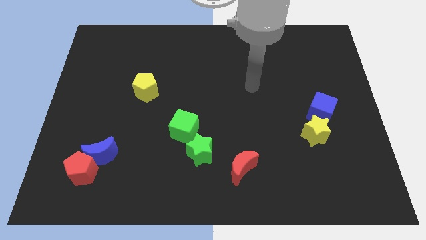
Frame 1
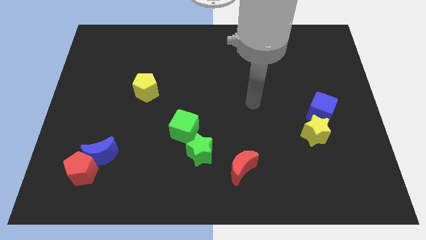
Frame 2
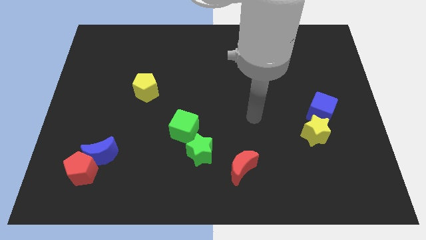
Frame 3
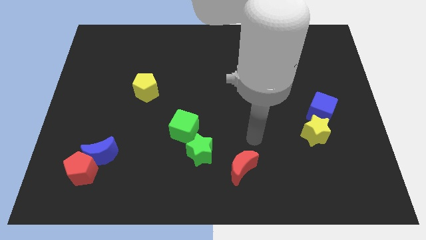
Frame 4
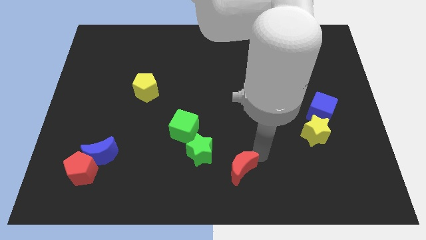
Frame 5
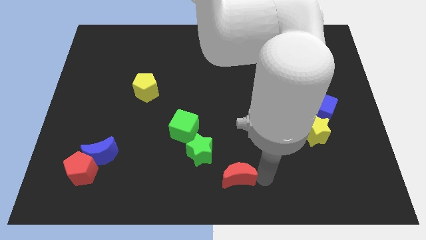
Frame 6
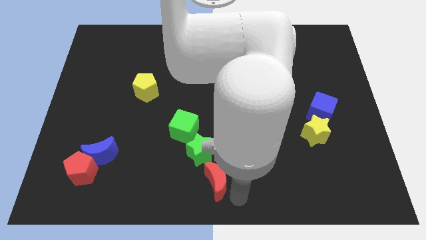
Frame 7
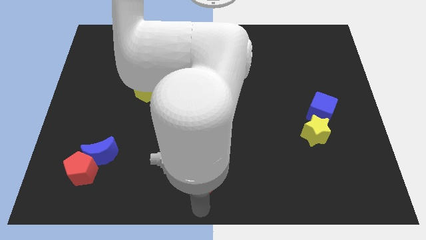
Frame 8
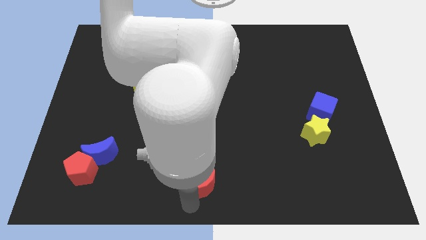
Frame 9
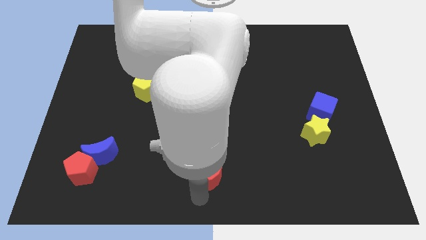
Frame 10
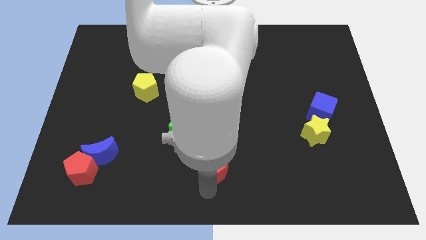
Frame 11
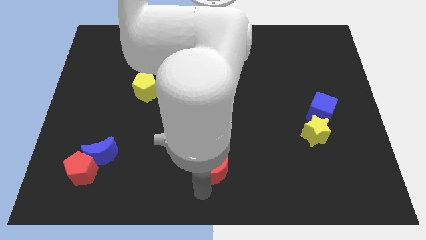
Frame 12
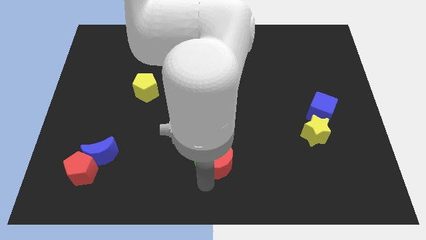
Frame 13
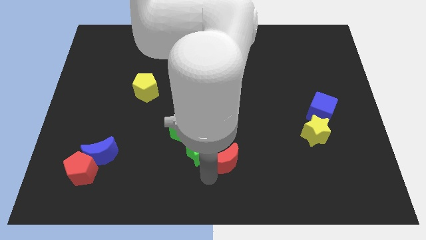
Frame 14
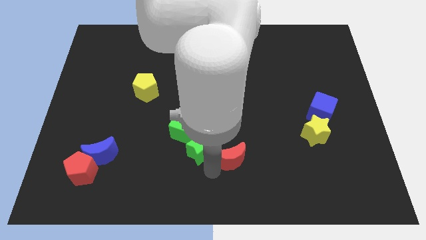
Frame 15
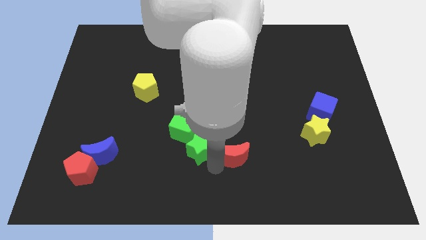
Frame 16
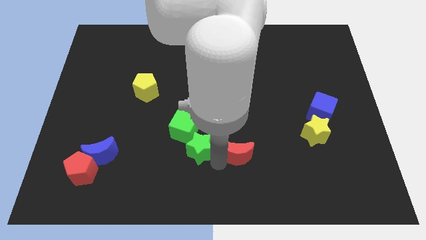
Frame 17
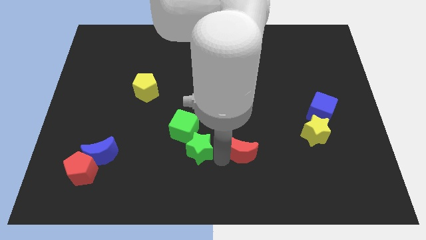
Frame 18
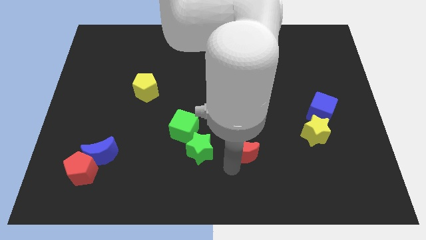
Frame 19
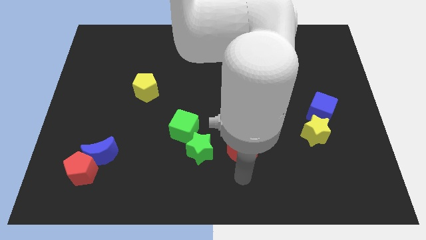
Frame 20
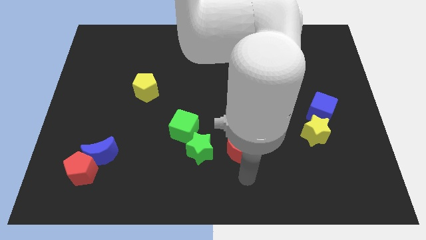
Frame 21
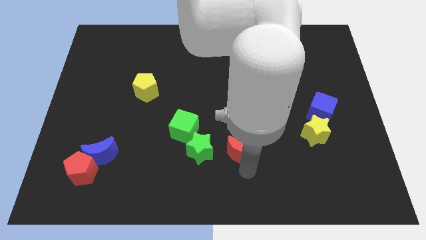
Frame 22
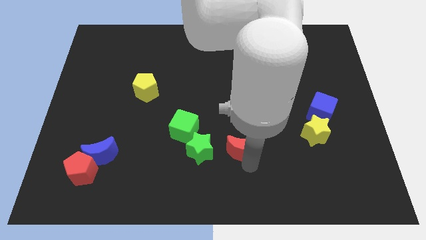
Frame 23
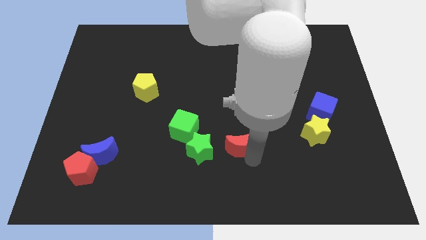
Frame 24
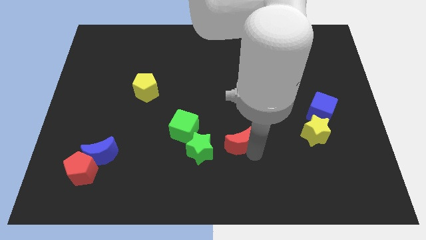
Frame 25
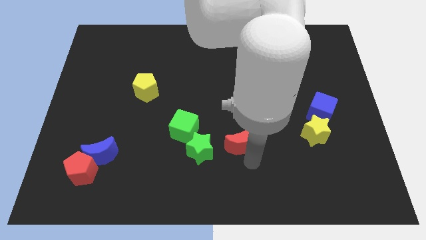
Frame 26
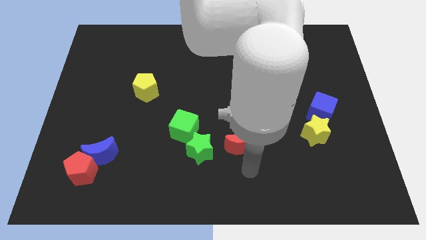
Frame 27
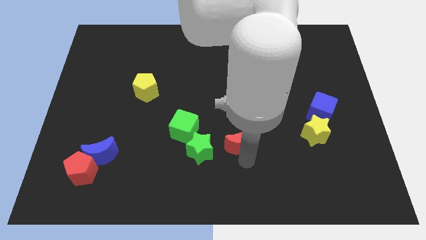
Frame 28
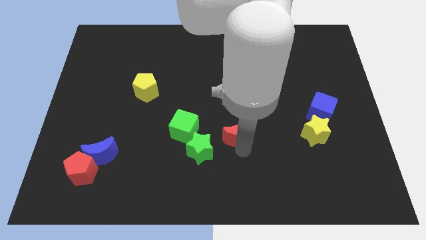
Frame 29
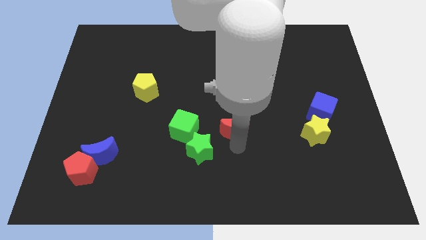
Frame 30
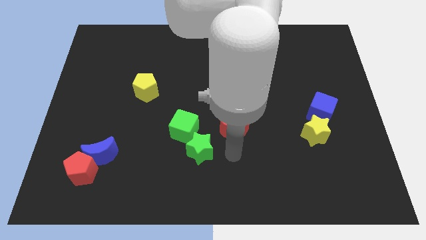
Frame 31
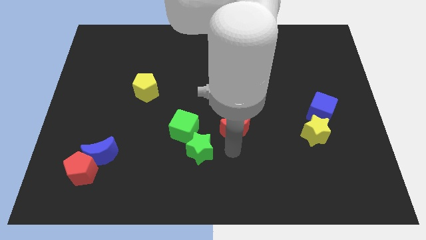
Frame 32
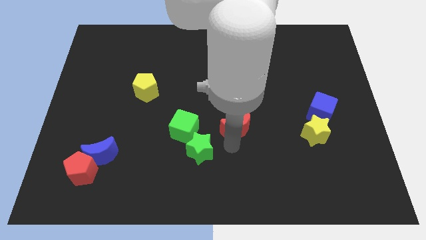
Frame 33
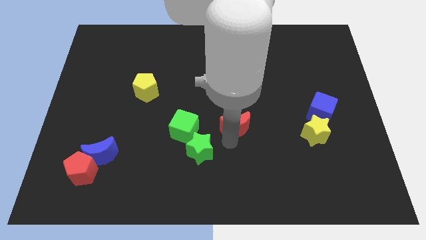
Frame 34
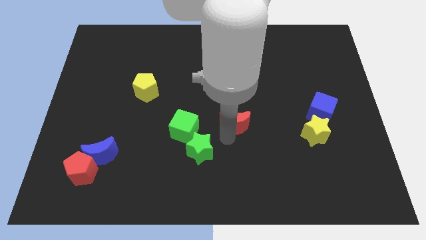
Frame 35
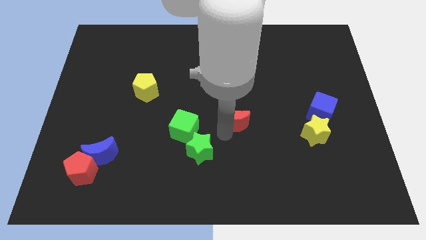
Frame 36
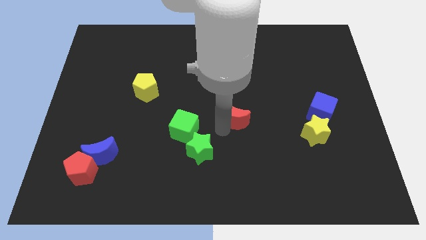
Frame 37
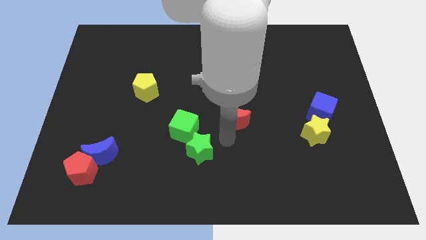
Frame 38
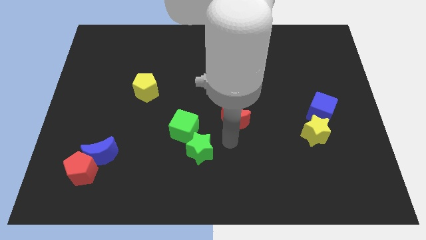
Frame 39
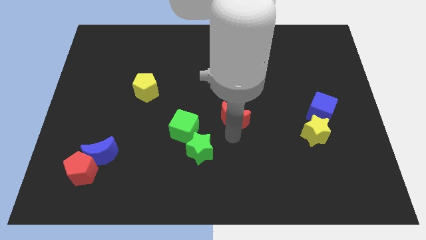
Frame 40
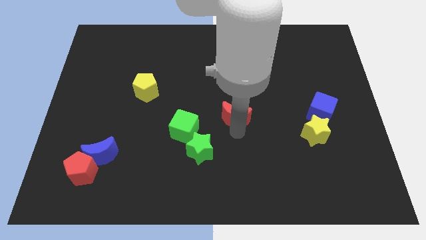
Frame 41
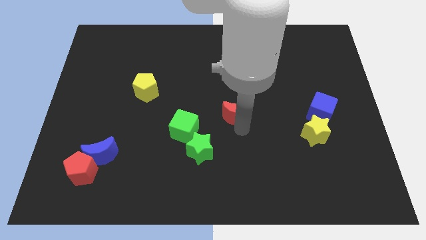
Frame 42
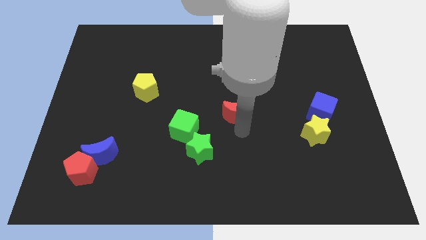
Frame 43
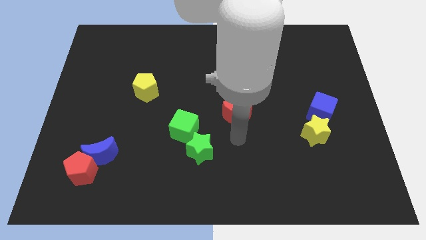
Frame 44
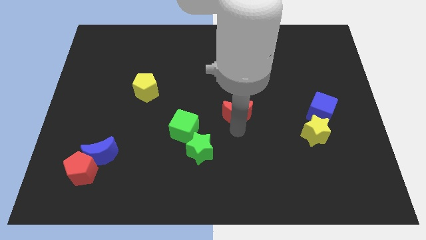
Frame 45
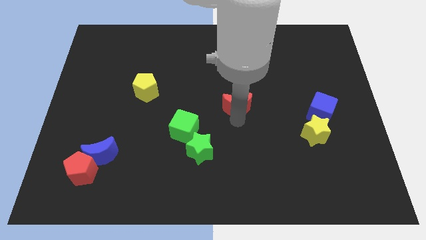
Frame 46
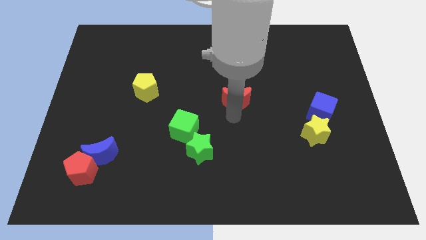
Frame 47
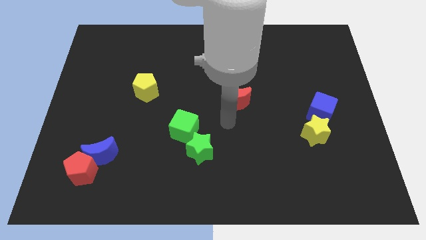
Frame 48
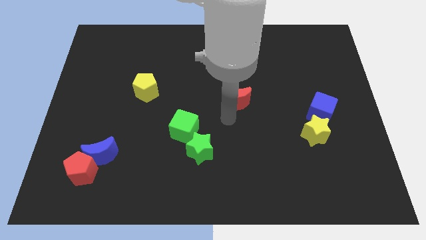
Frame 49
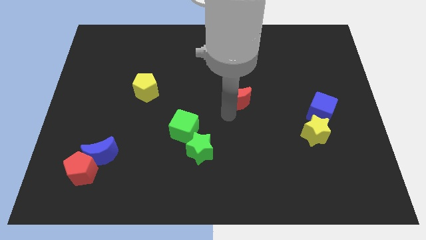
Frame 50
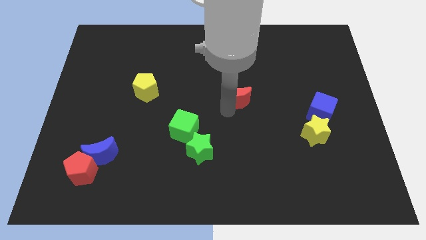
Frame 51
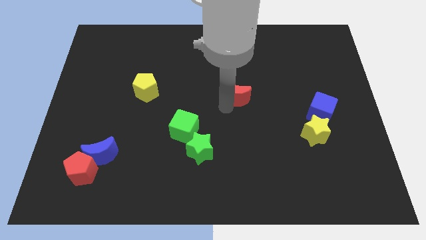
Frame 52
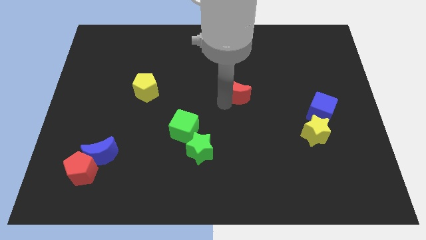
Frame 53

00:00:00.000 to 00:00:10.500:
slide the red moon up

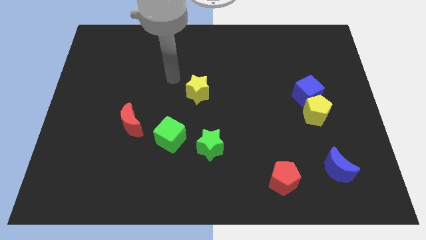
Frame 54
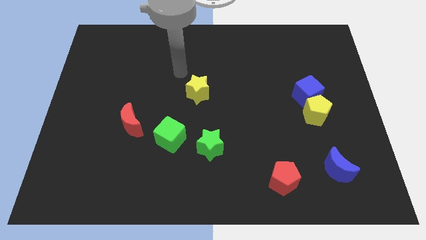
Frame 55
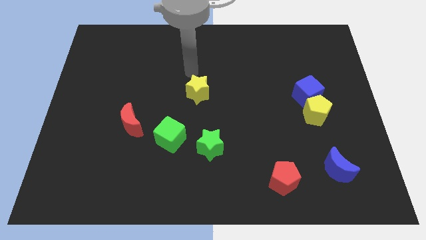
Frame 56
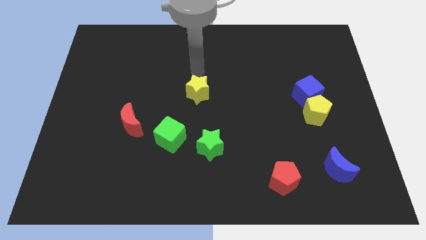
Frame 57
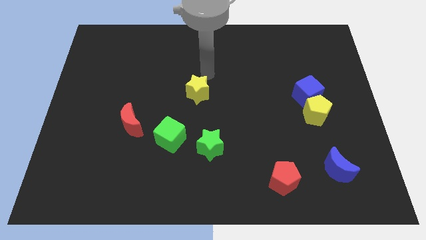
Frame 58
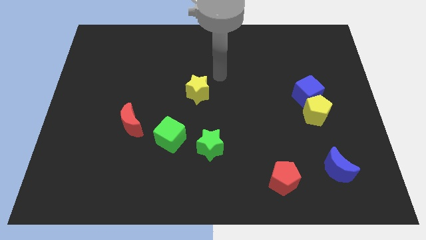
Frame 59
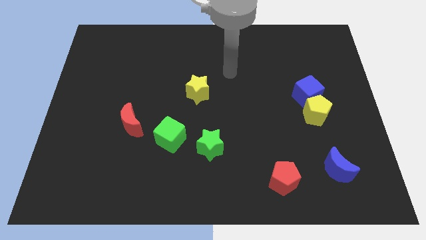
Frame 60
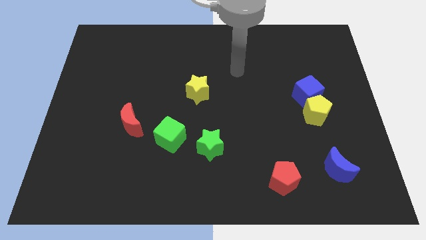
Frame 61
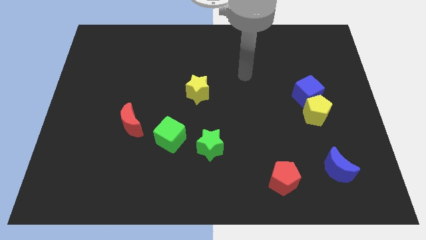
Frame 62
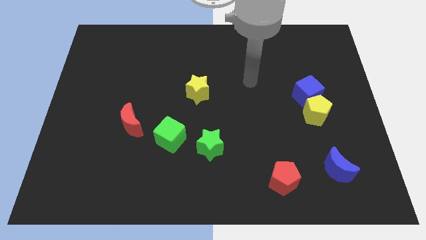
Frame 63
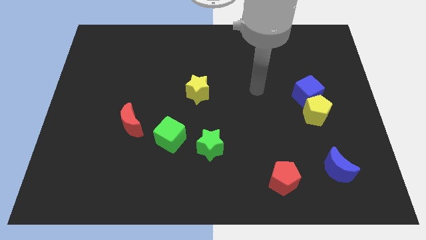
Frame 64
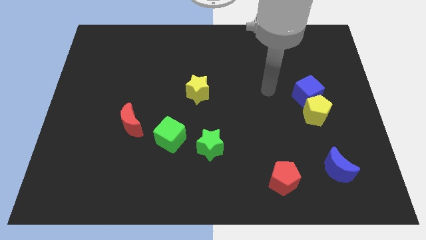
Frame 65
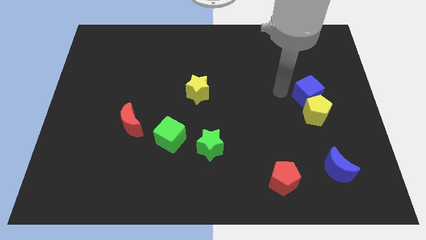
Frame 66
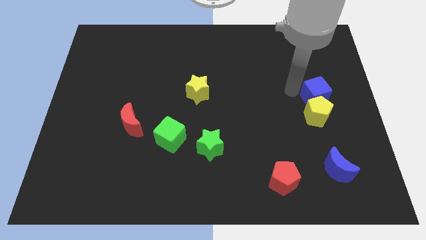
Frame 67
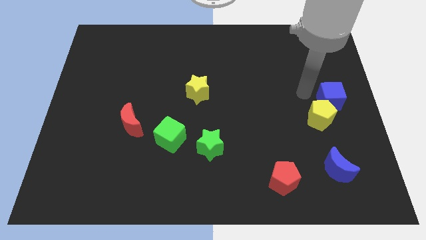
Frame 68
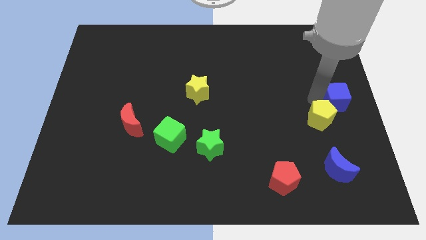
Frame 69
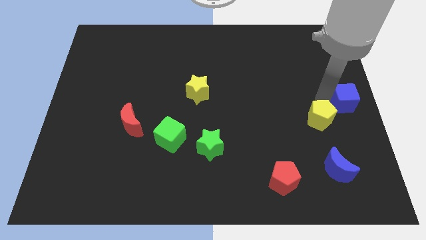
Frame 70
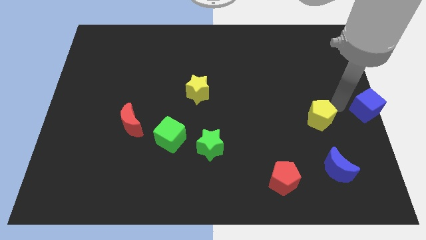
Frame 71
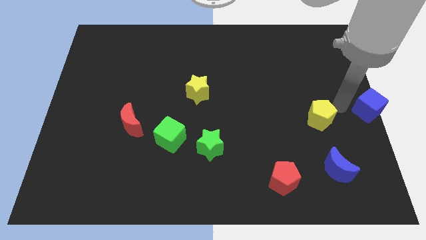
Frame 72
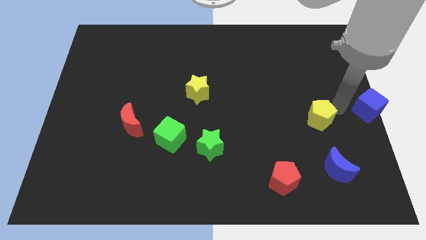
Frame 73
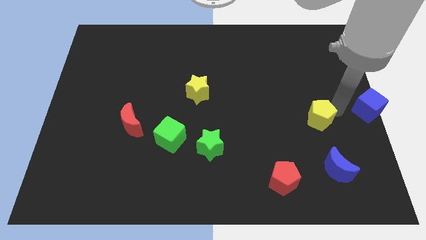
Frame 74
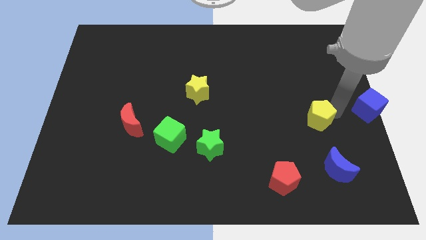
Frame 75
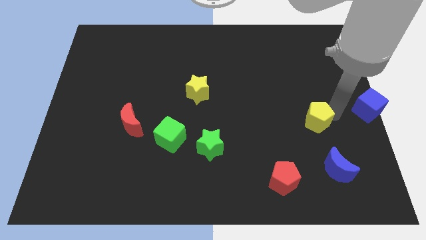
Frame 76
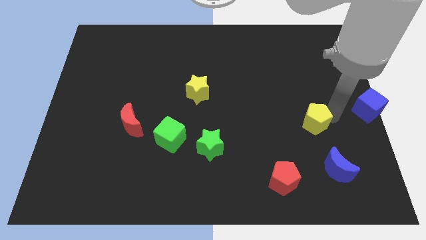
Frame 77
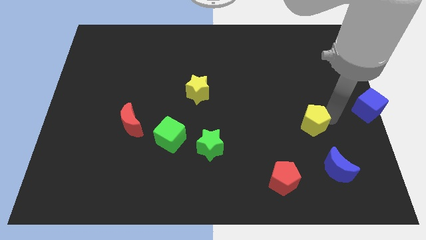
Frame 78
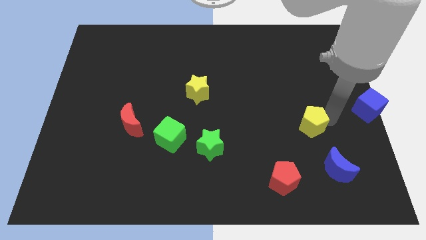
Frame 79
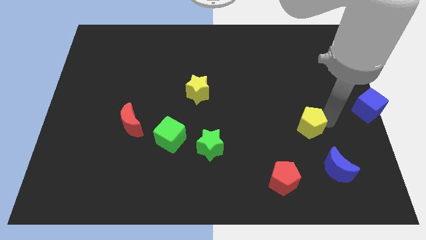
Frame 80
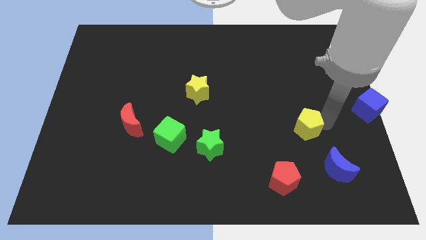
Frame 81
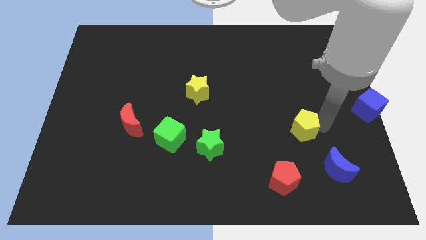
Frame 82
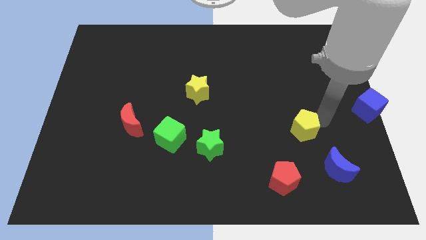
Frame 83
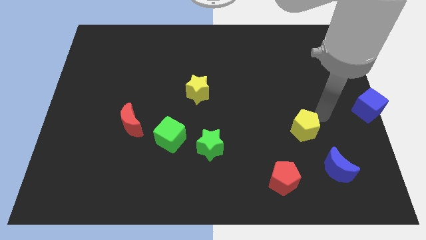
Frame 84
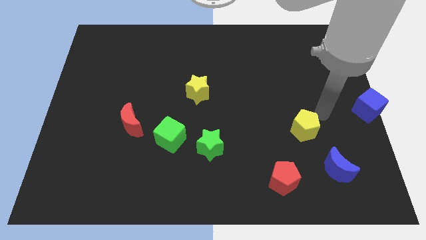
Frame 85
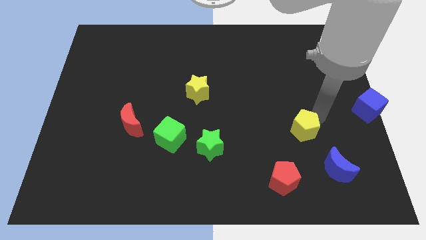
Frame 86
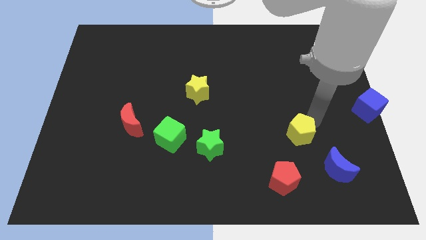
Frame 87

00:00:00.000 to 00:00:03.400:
slightly push the yellow pentagon downwards and then to the left
